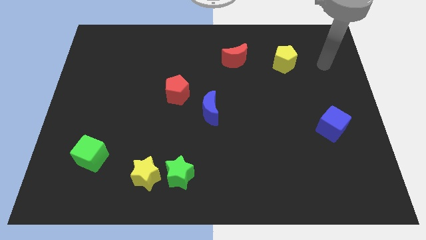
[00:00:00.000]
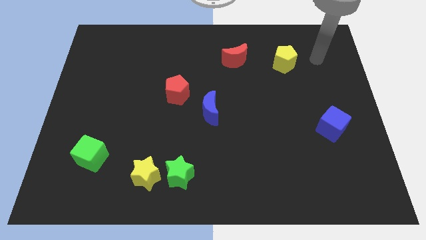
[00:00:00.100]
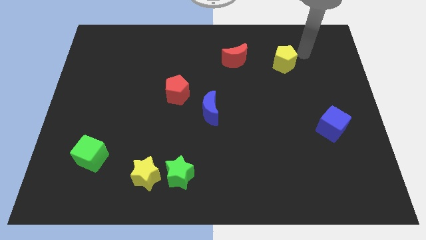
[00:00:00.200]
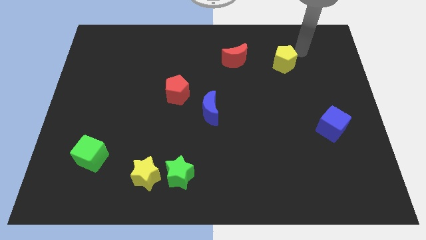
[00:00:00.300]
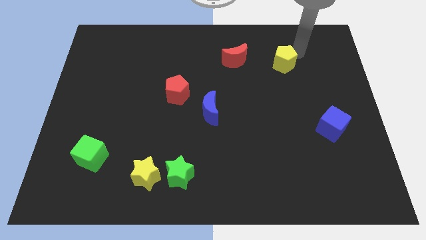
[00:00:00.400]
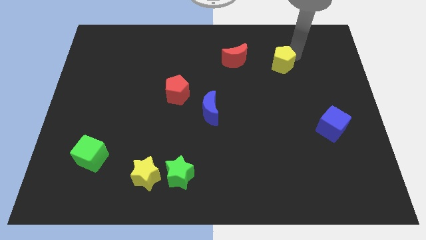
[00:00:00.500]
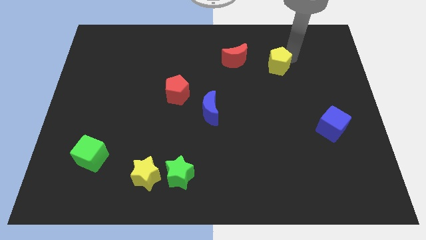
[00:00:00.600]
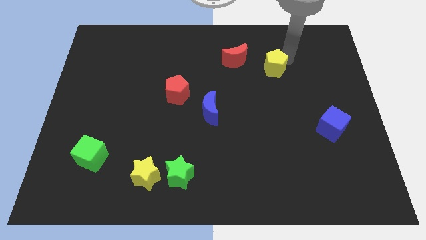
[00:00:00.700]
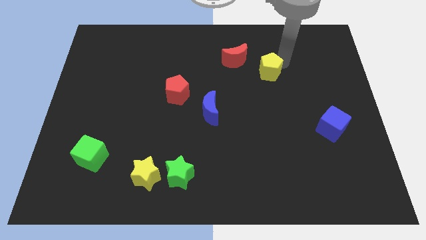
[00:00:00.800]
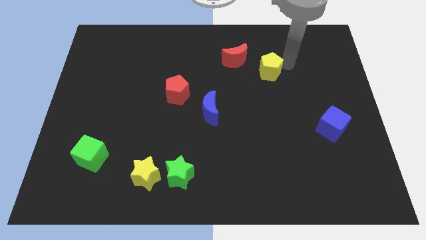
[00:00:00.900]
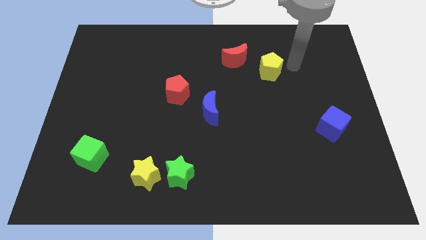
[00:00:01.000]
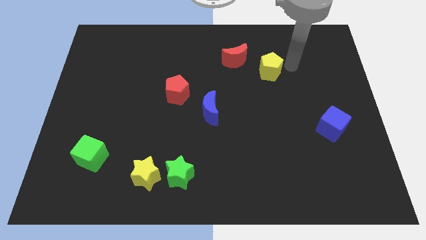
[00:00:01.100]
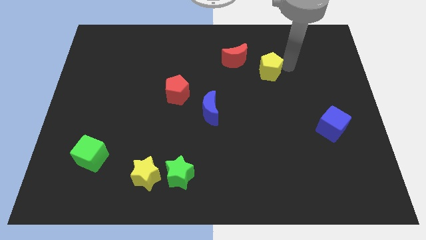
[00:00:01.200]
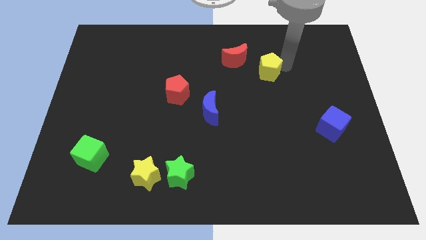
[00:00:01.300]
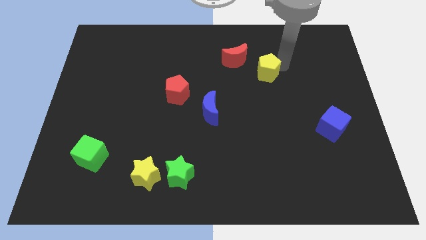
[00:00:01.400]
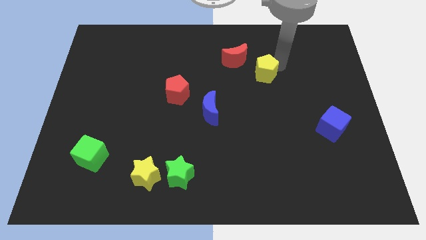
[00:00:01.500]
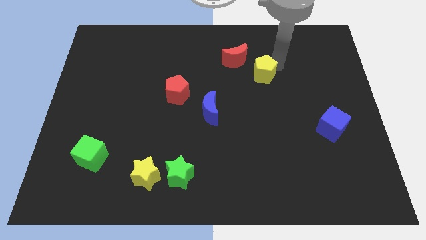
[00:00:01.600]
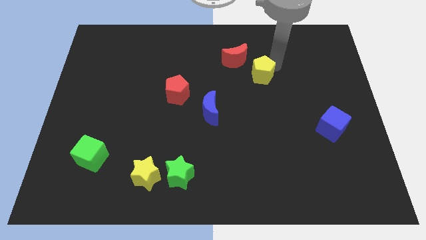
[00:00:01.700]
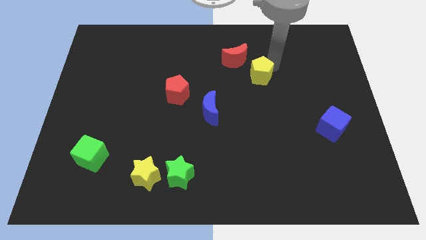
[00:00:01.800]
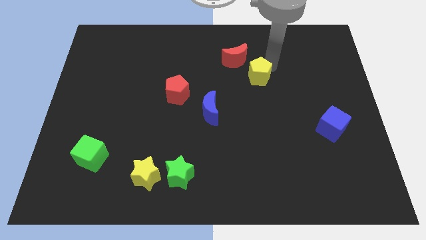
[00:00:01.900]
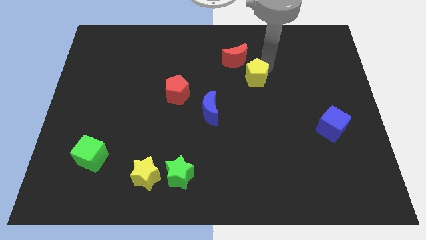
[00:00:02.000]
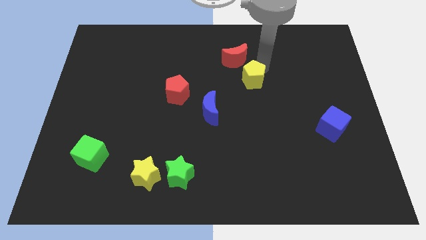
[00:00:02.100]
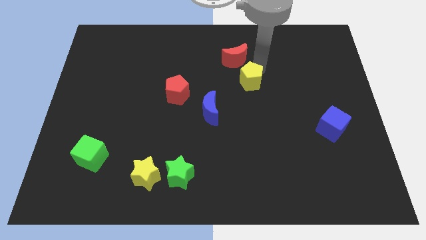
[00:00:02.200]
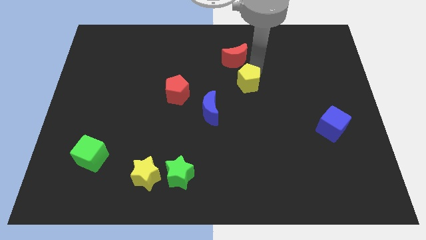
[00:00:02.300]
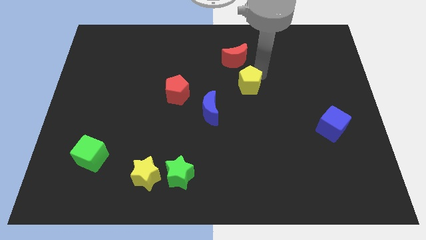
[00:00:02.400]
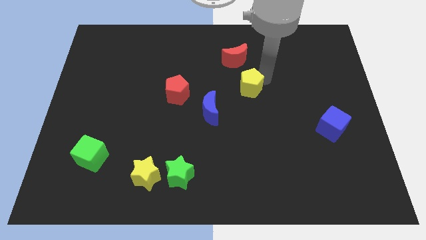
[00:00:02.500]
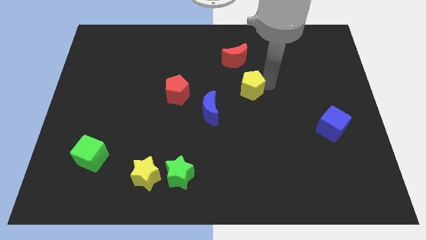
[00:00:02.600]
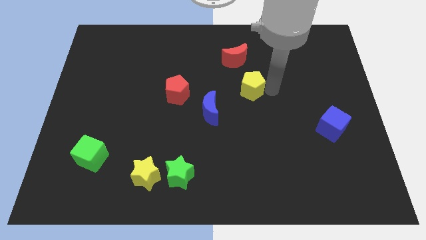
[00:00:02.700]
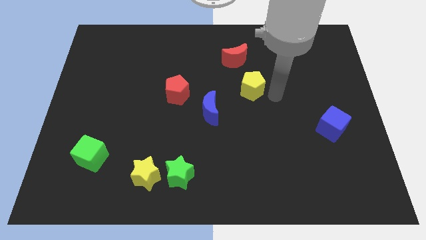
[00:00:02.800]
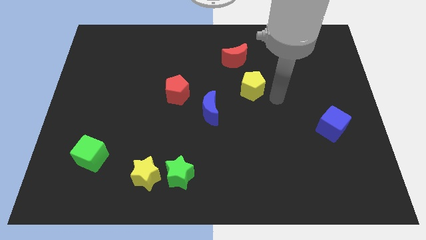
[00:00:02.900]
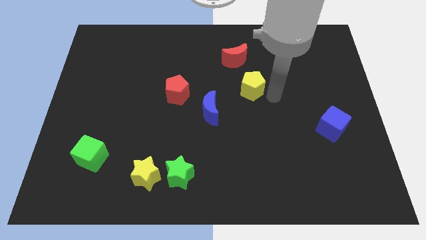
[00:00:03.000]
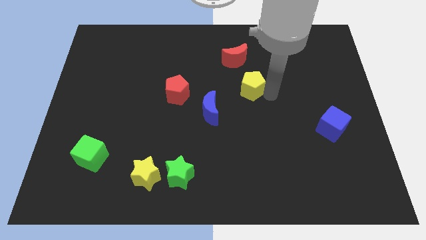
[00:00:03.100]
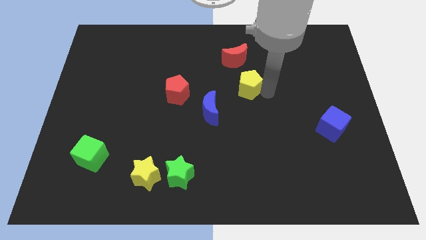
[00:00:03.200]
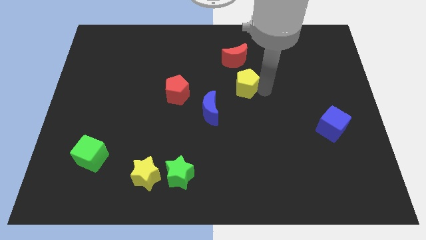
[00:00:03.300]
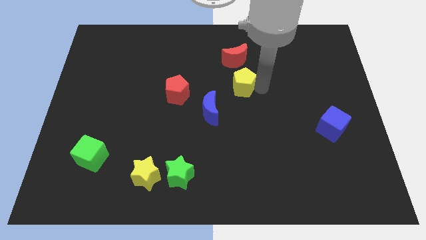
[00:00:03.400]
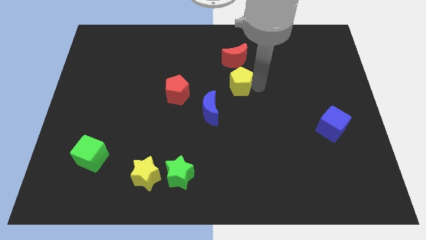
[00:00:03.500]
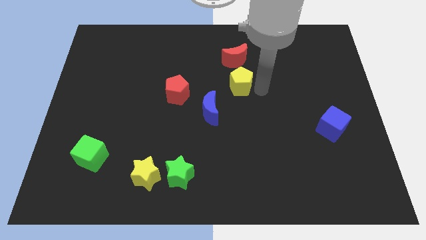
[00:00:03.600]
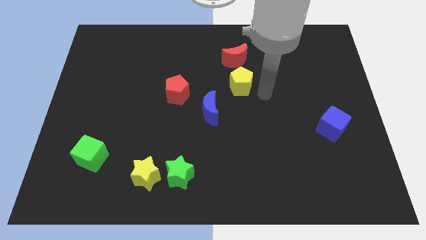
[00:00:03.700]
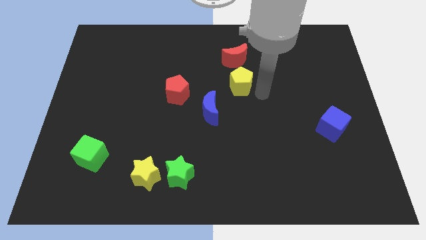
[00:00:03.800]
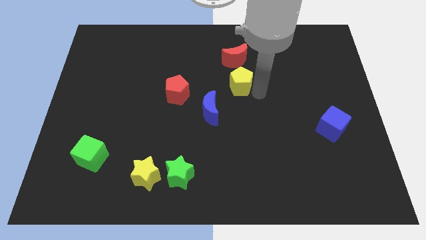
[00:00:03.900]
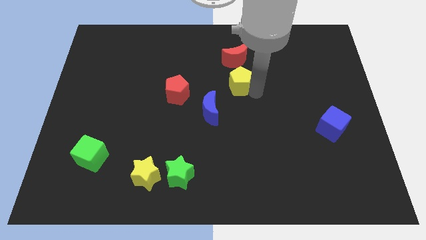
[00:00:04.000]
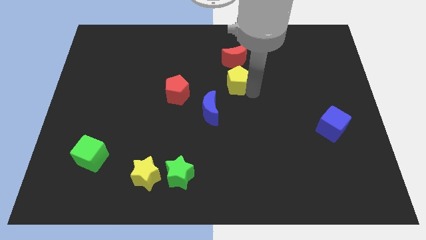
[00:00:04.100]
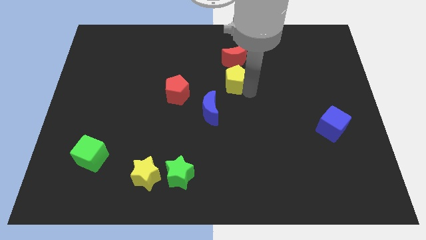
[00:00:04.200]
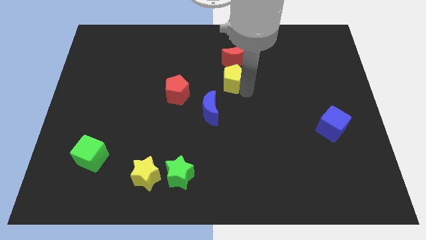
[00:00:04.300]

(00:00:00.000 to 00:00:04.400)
move the yellow pentagon diagonally down and to the left of the red moon

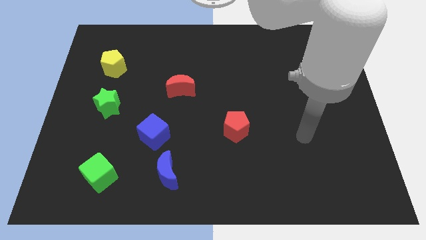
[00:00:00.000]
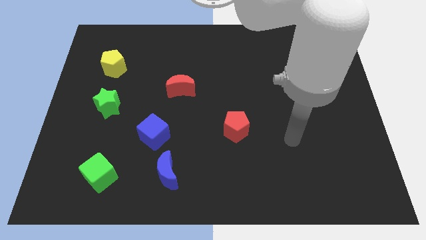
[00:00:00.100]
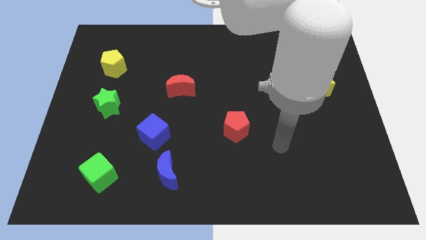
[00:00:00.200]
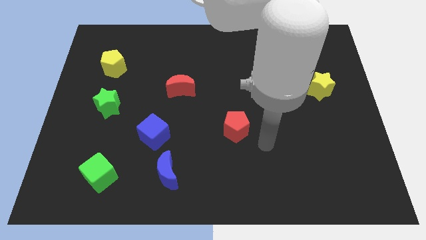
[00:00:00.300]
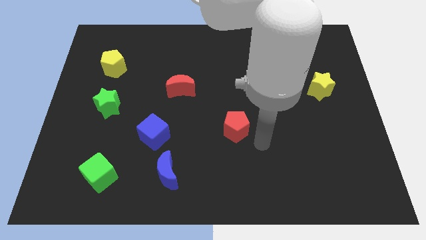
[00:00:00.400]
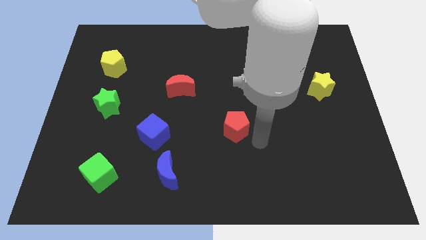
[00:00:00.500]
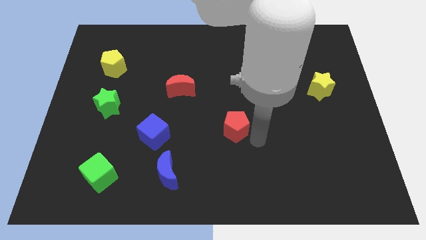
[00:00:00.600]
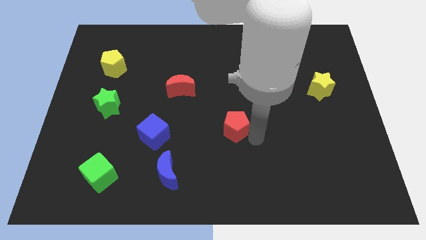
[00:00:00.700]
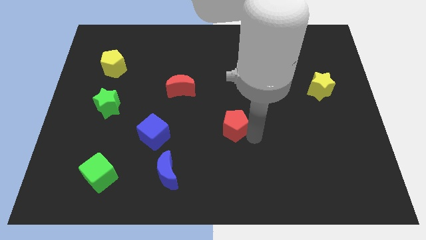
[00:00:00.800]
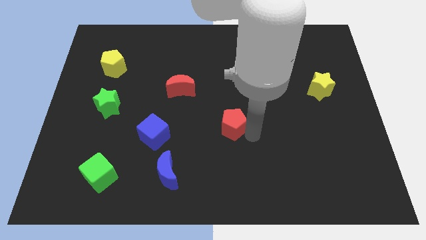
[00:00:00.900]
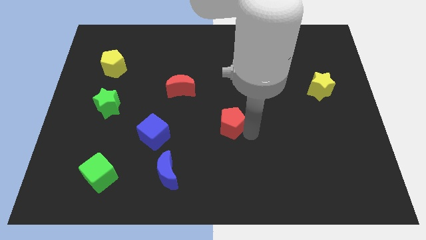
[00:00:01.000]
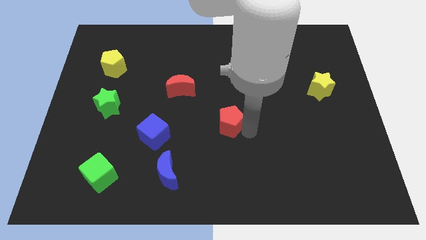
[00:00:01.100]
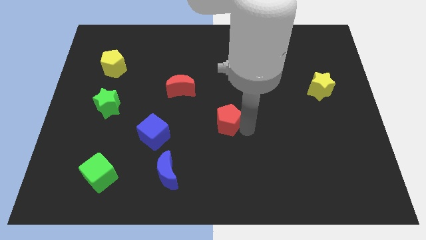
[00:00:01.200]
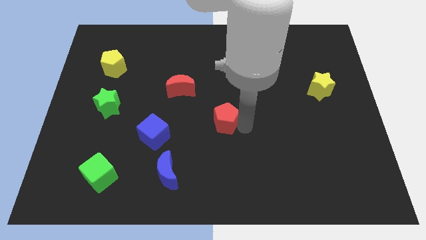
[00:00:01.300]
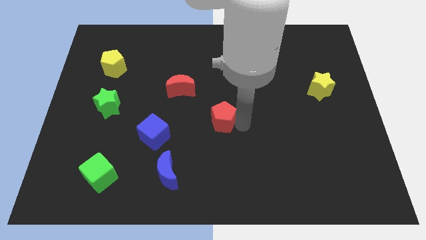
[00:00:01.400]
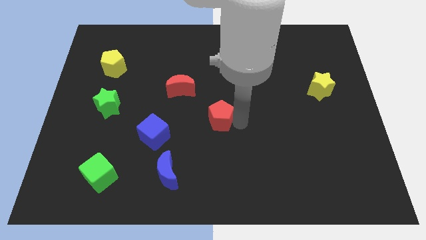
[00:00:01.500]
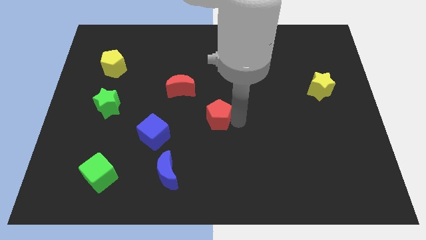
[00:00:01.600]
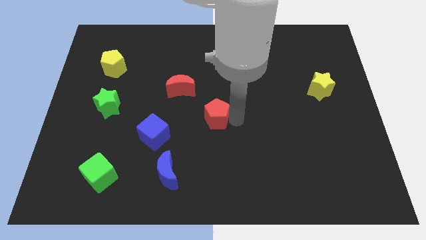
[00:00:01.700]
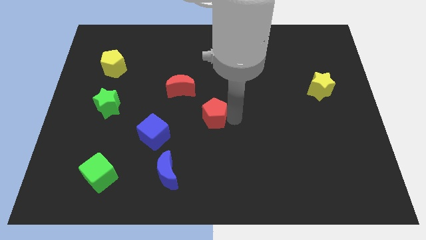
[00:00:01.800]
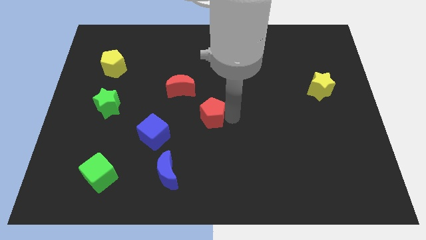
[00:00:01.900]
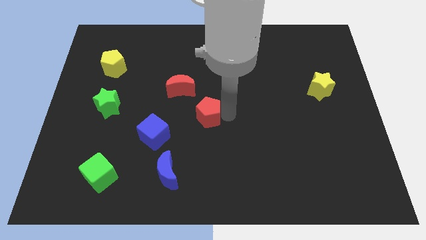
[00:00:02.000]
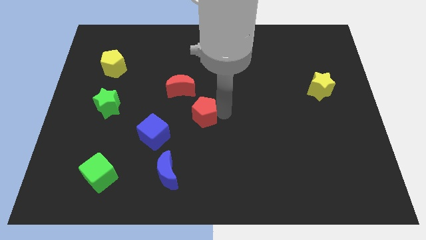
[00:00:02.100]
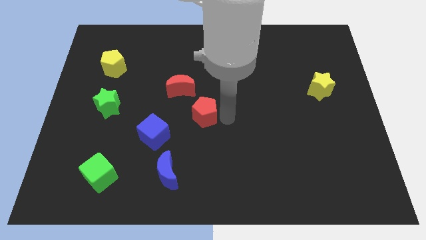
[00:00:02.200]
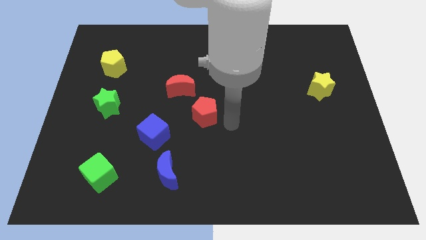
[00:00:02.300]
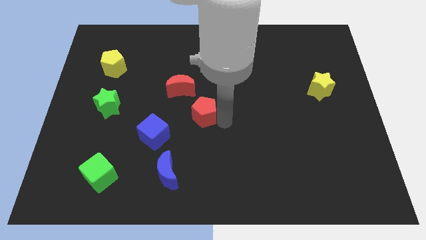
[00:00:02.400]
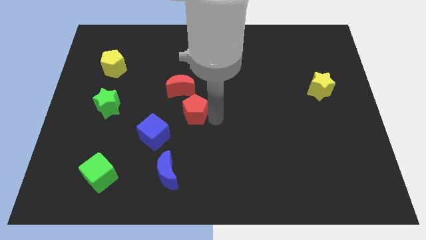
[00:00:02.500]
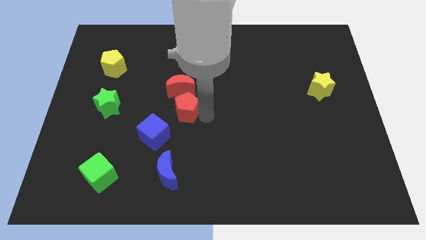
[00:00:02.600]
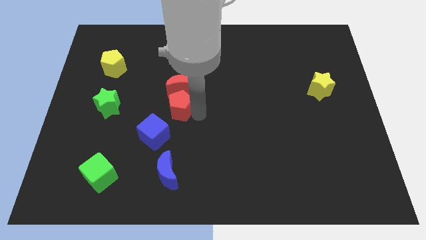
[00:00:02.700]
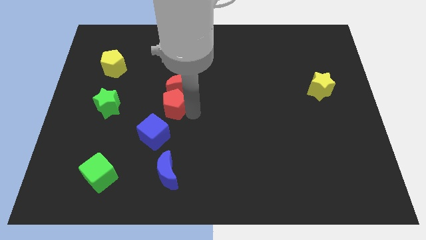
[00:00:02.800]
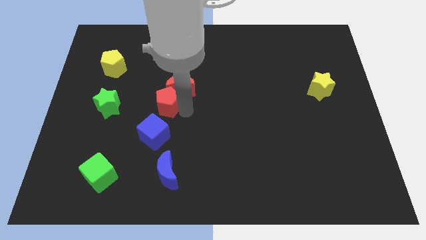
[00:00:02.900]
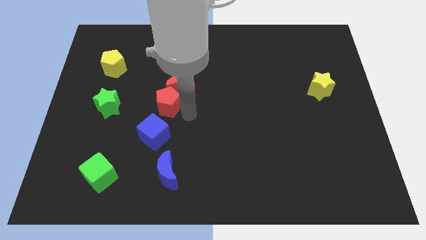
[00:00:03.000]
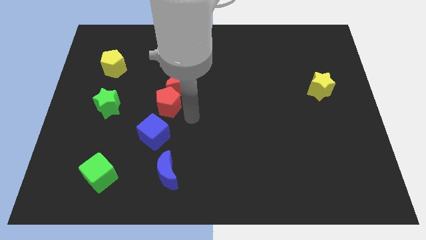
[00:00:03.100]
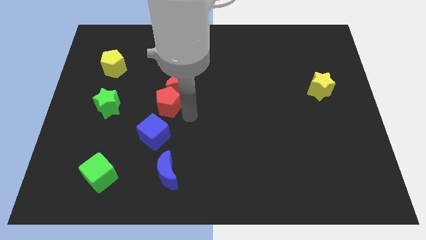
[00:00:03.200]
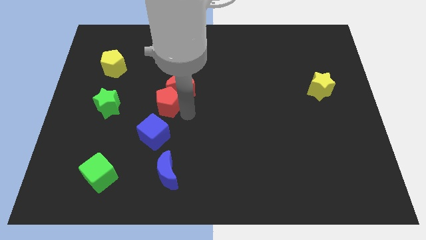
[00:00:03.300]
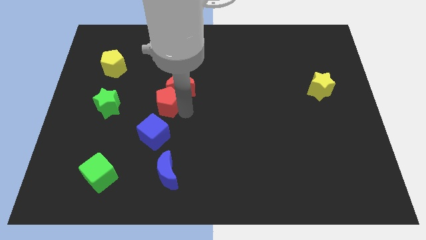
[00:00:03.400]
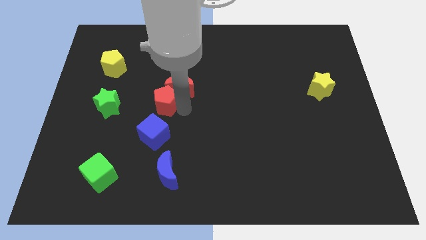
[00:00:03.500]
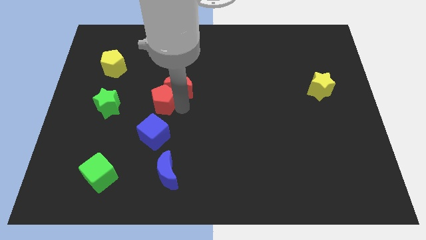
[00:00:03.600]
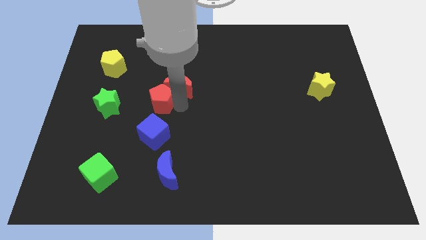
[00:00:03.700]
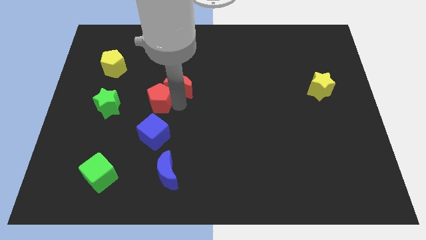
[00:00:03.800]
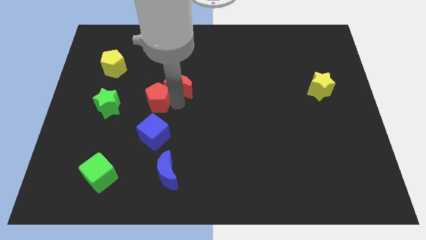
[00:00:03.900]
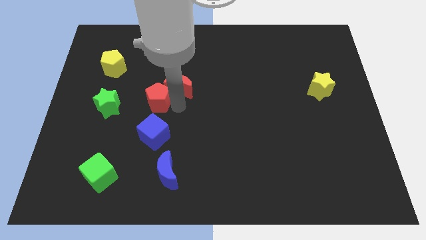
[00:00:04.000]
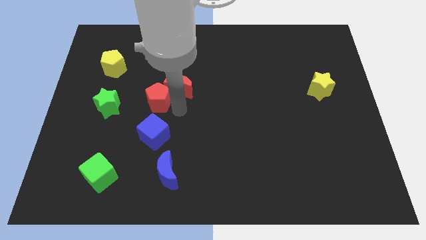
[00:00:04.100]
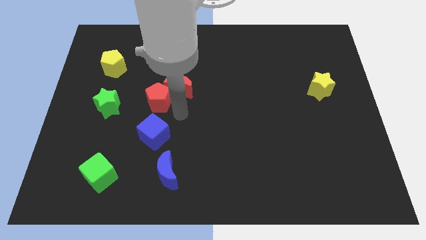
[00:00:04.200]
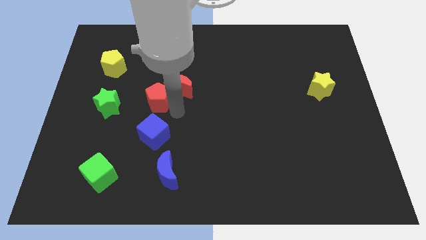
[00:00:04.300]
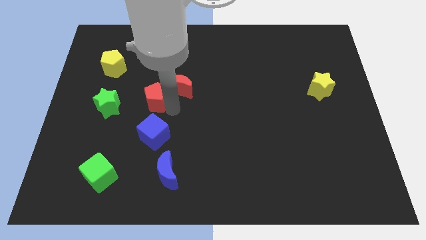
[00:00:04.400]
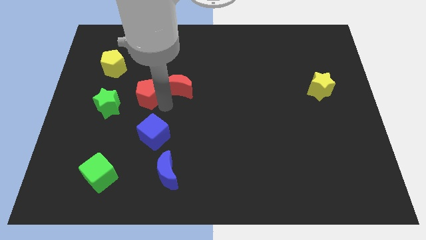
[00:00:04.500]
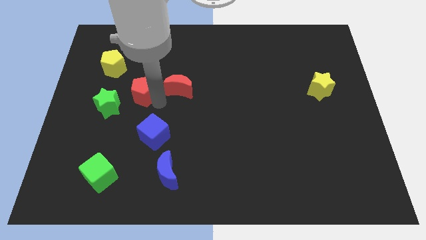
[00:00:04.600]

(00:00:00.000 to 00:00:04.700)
move the red pentagon to the bottom right side of the yellow pentagon
